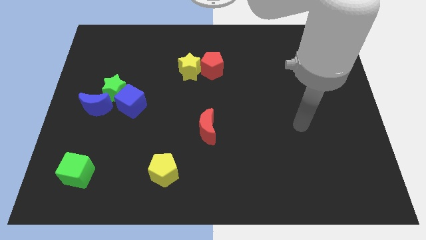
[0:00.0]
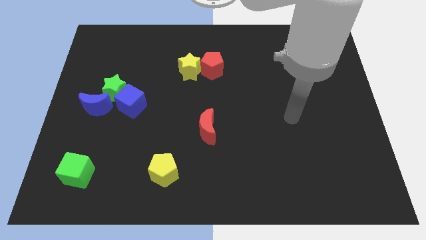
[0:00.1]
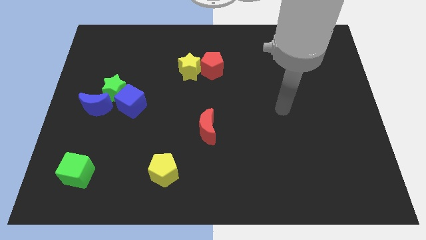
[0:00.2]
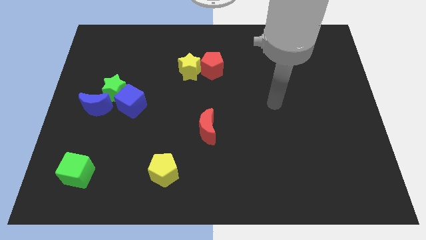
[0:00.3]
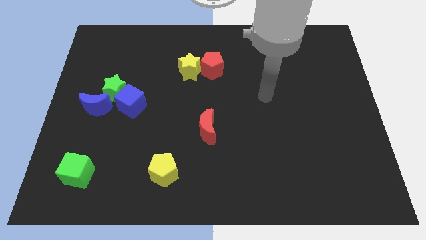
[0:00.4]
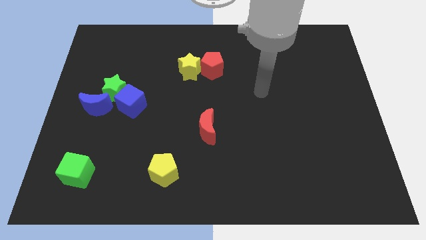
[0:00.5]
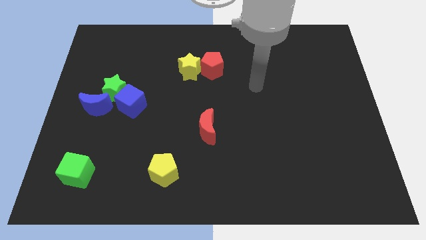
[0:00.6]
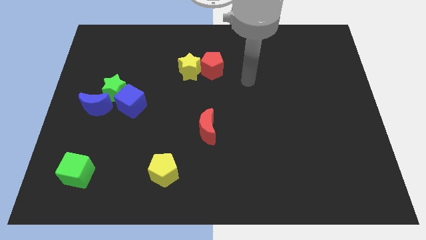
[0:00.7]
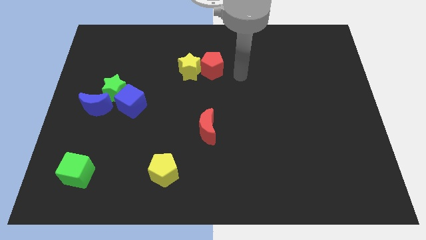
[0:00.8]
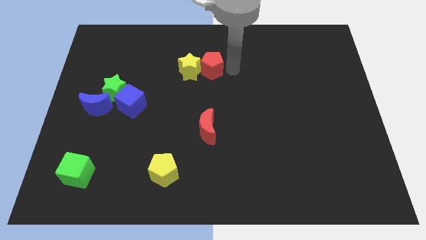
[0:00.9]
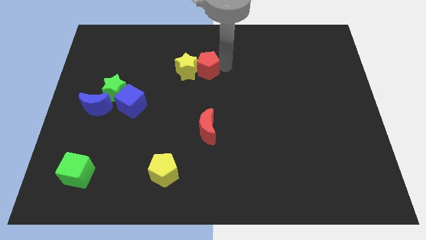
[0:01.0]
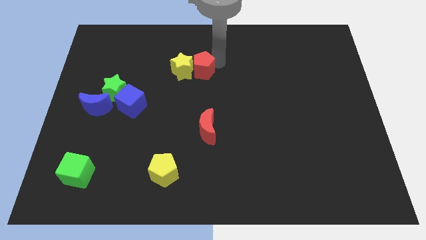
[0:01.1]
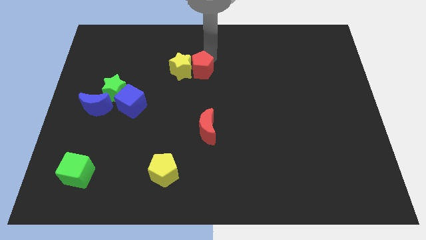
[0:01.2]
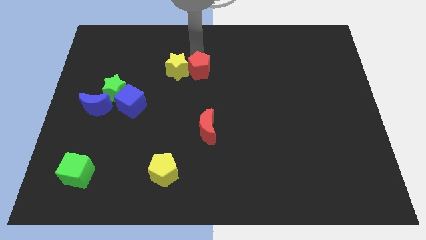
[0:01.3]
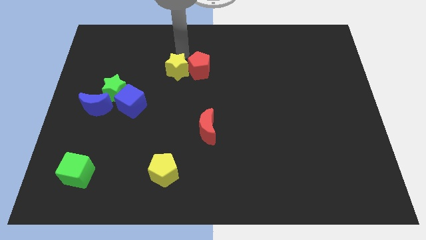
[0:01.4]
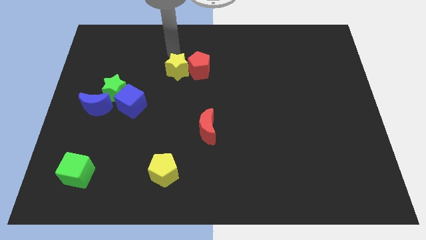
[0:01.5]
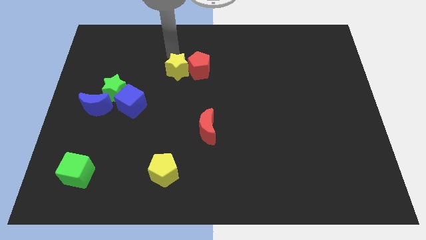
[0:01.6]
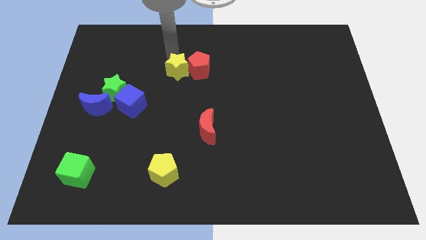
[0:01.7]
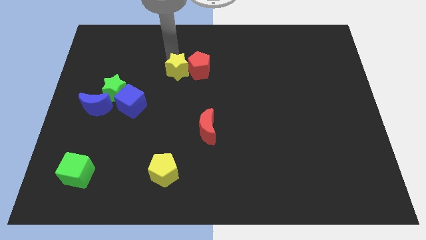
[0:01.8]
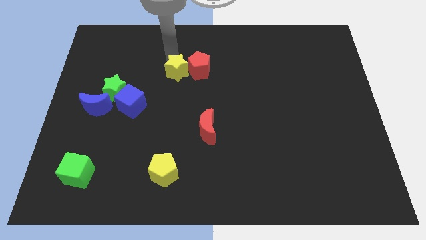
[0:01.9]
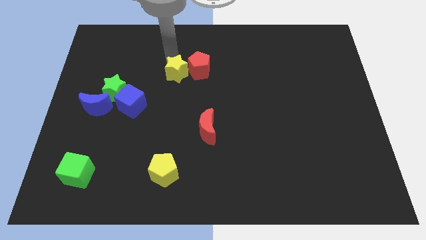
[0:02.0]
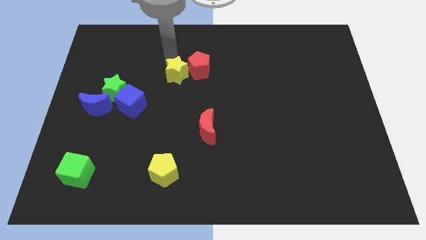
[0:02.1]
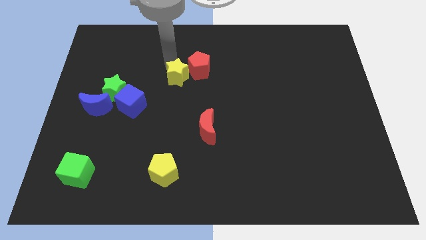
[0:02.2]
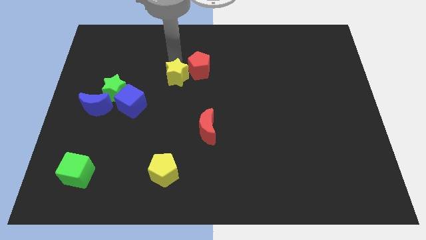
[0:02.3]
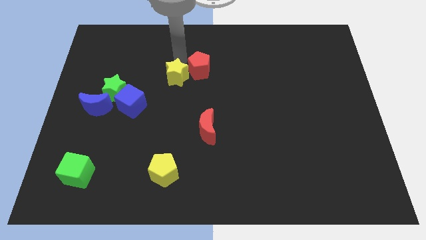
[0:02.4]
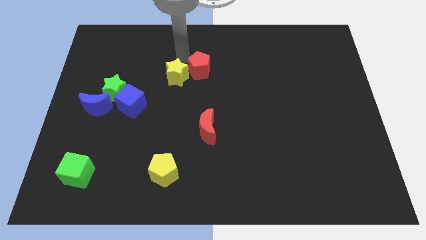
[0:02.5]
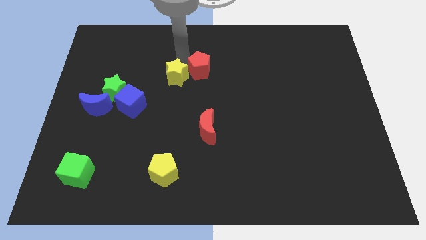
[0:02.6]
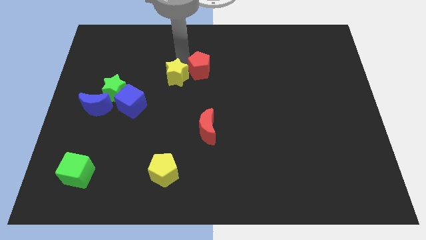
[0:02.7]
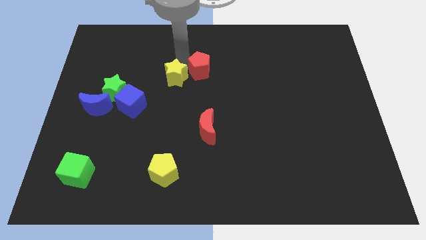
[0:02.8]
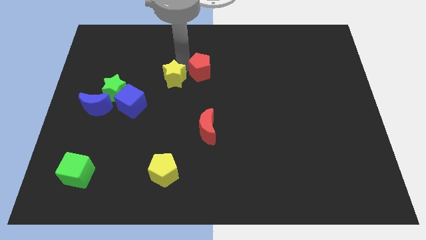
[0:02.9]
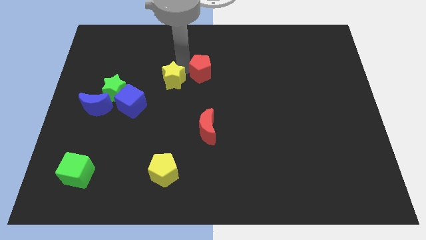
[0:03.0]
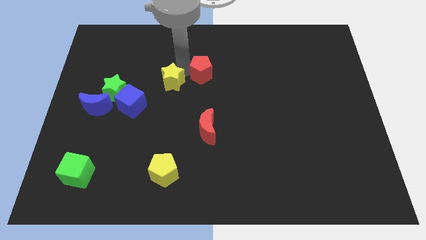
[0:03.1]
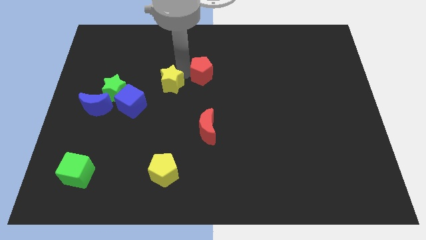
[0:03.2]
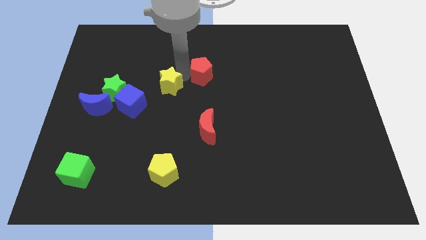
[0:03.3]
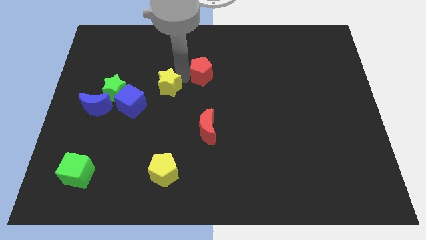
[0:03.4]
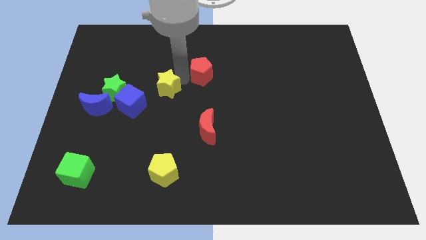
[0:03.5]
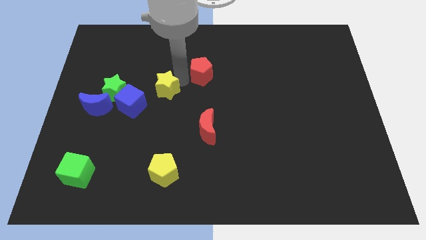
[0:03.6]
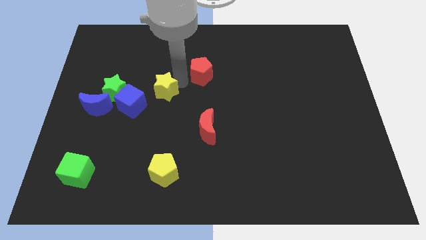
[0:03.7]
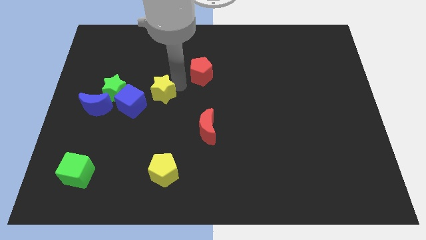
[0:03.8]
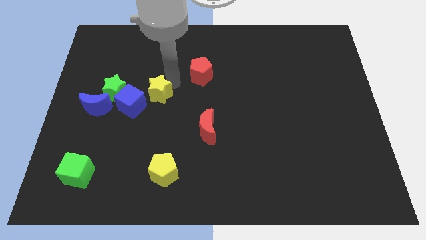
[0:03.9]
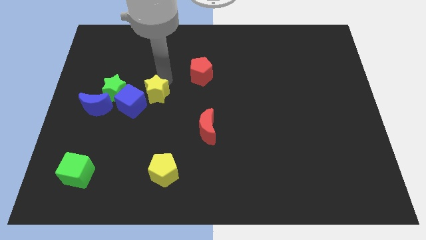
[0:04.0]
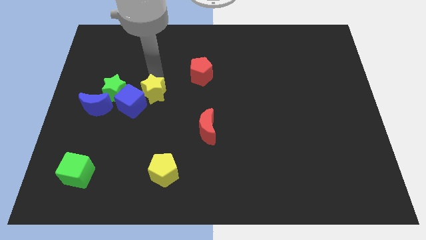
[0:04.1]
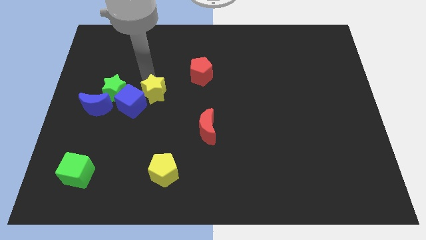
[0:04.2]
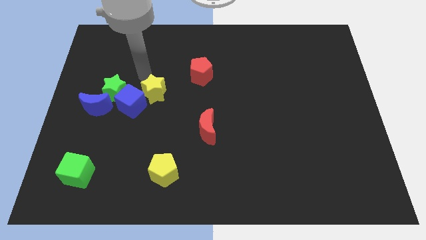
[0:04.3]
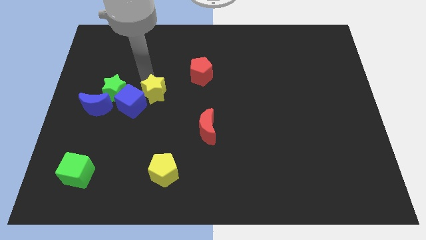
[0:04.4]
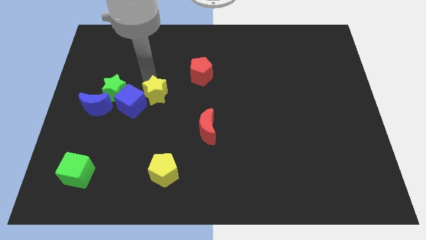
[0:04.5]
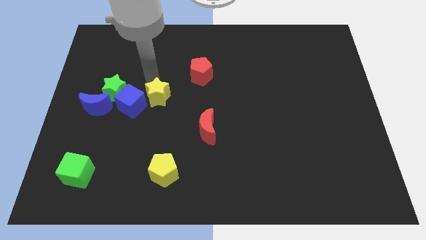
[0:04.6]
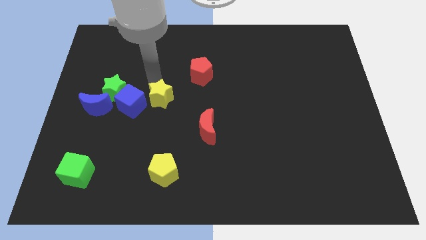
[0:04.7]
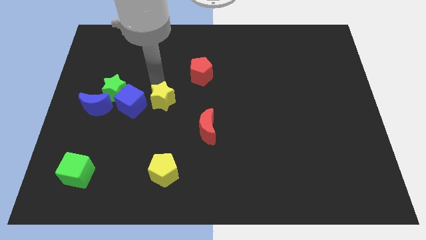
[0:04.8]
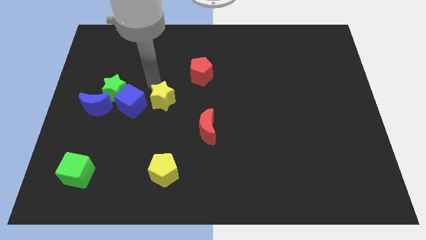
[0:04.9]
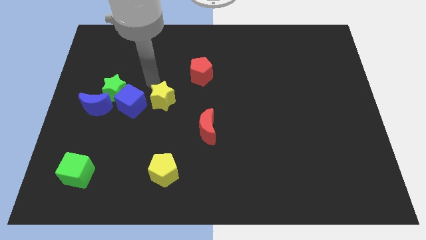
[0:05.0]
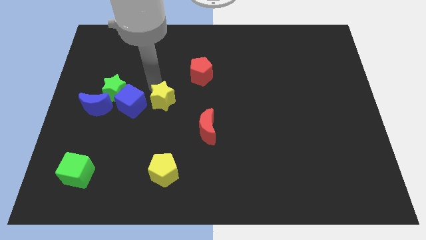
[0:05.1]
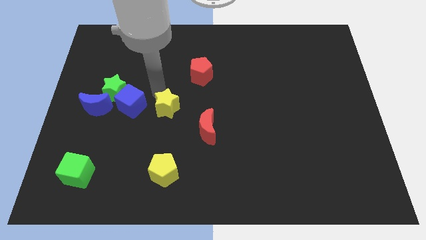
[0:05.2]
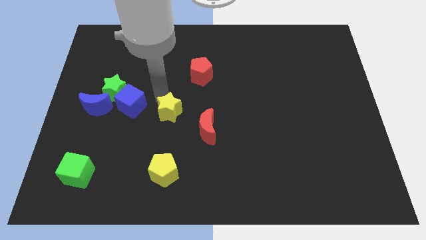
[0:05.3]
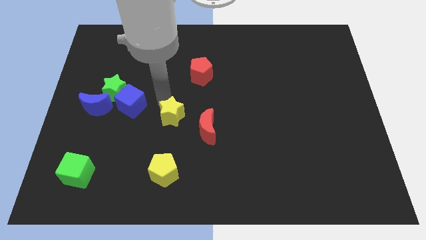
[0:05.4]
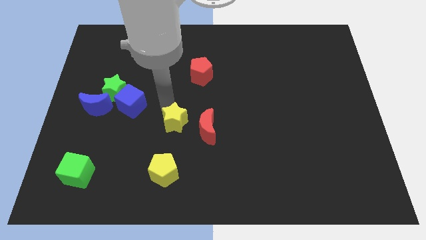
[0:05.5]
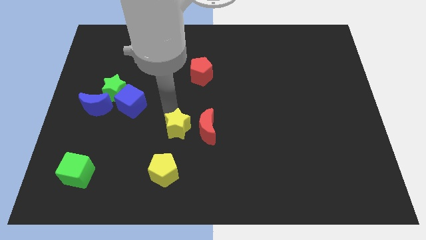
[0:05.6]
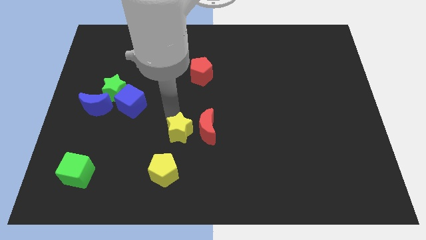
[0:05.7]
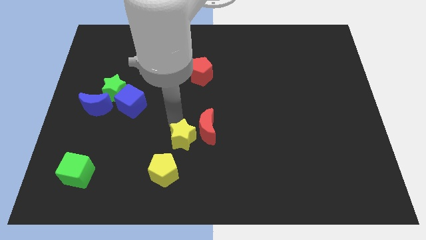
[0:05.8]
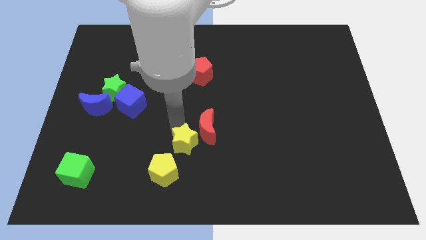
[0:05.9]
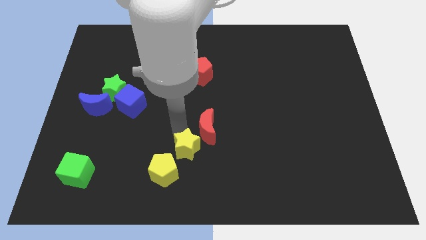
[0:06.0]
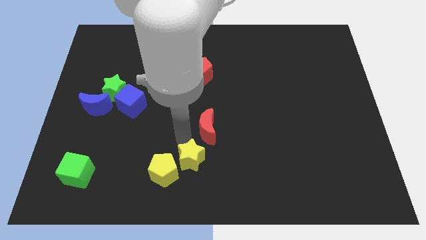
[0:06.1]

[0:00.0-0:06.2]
move the yellow star to the bottom
